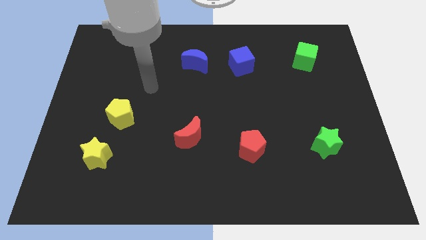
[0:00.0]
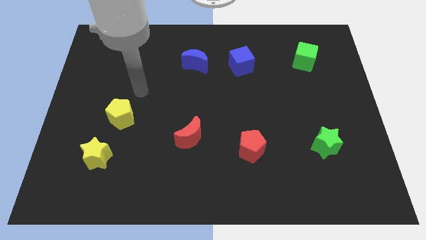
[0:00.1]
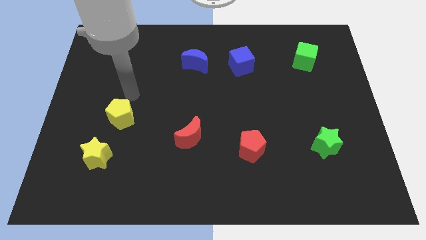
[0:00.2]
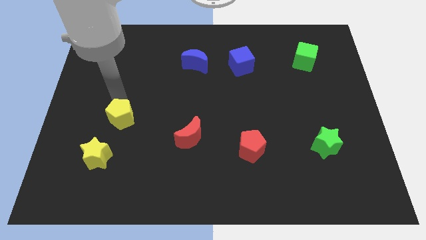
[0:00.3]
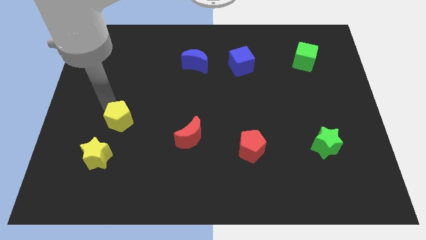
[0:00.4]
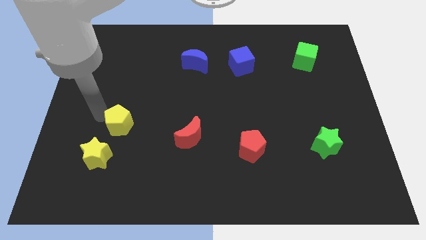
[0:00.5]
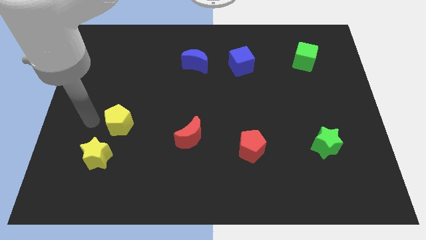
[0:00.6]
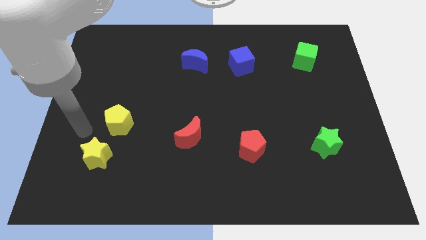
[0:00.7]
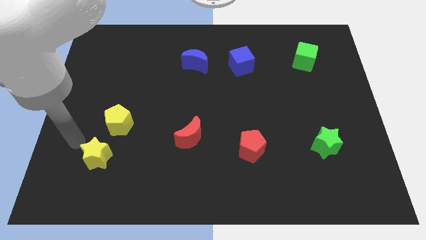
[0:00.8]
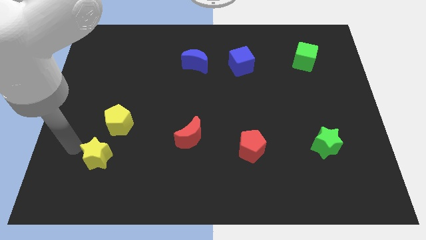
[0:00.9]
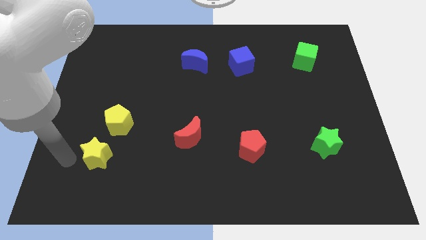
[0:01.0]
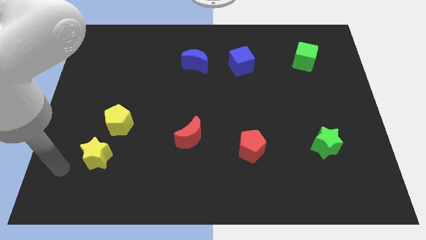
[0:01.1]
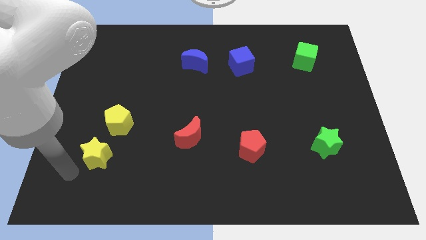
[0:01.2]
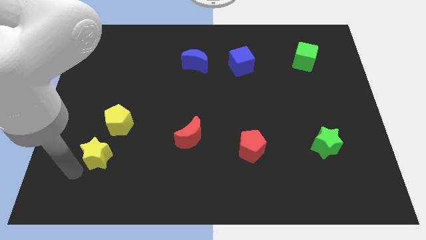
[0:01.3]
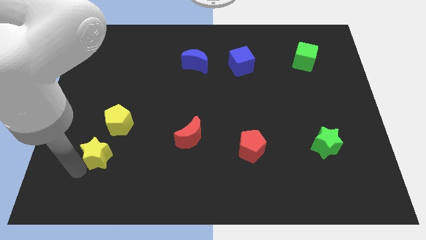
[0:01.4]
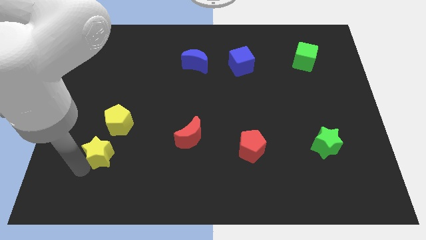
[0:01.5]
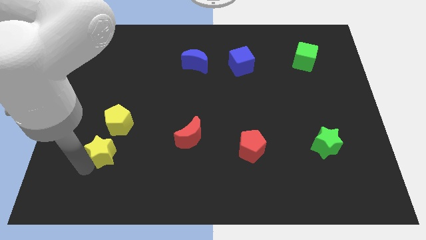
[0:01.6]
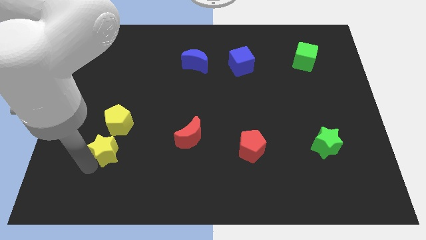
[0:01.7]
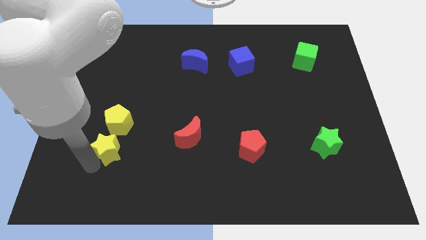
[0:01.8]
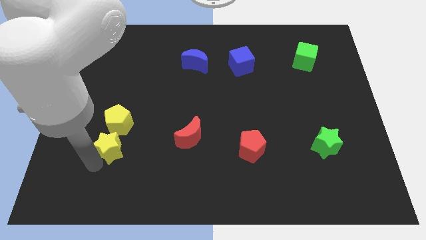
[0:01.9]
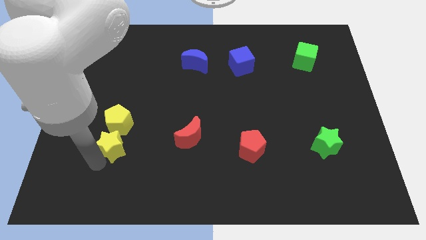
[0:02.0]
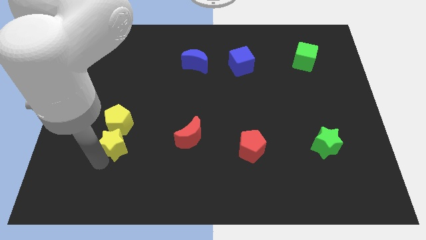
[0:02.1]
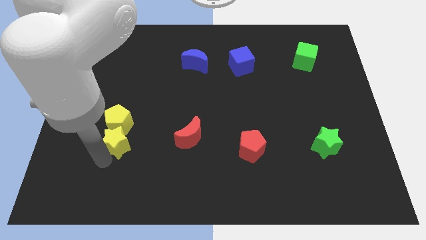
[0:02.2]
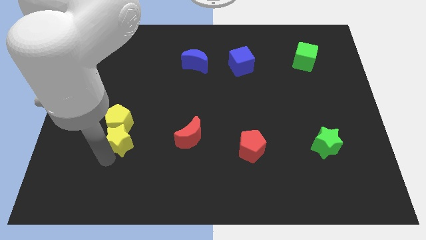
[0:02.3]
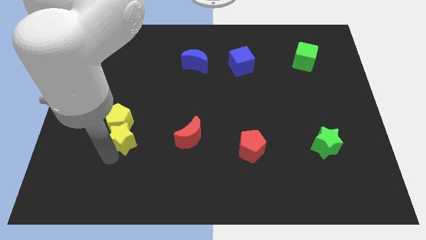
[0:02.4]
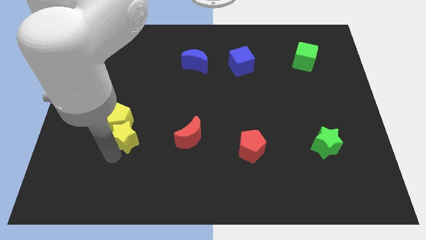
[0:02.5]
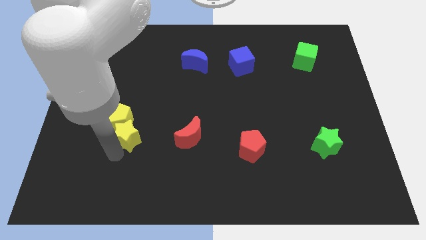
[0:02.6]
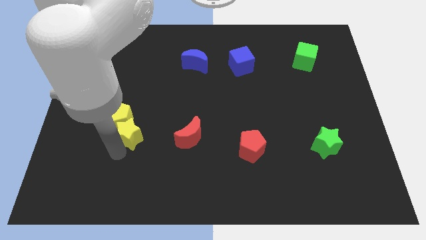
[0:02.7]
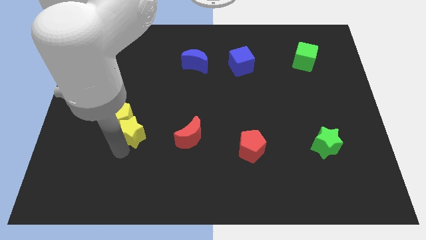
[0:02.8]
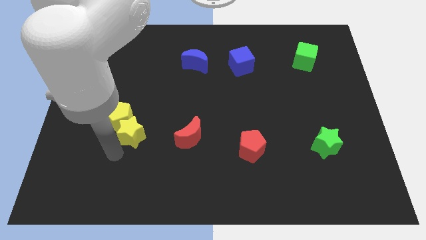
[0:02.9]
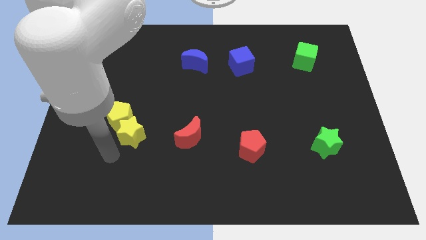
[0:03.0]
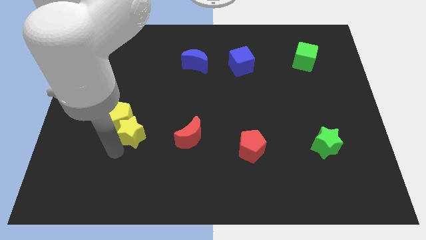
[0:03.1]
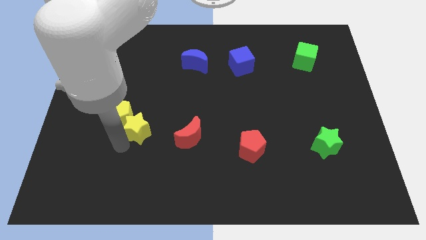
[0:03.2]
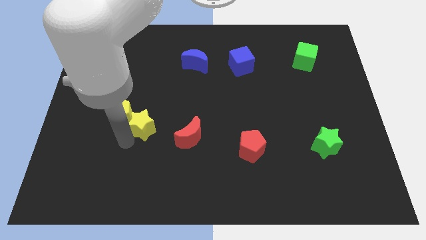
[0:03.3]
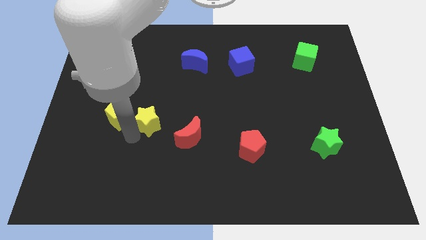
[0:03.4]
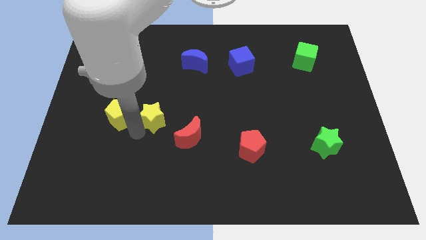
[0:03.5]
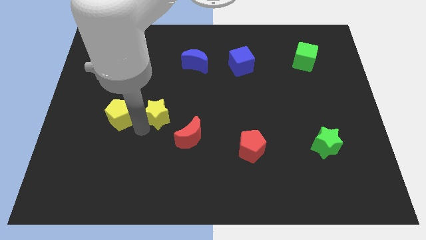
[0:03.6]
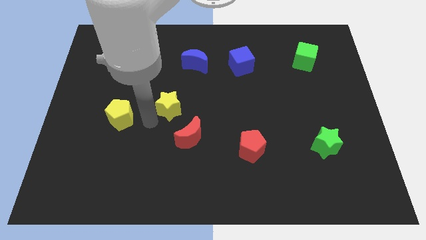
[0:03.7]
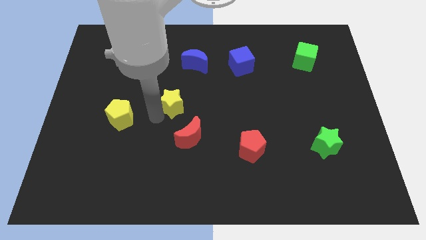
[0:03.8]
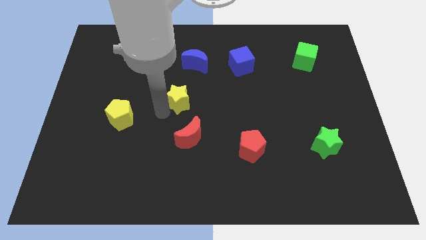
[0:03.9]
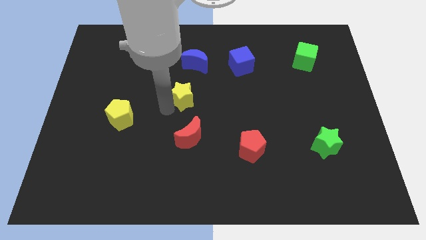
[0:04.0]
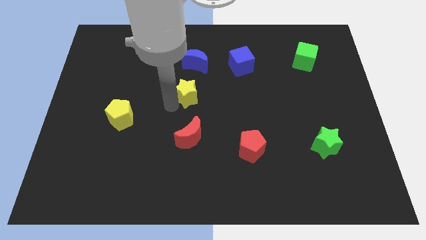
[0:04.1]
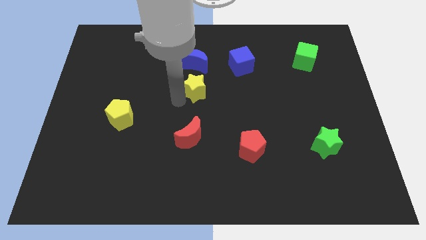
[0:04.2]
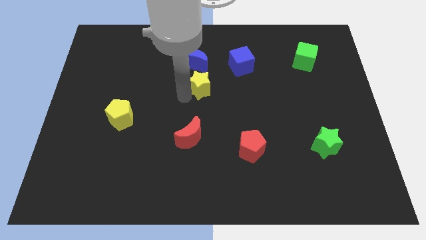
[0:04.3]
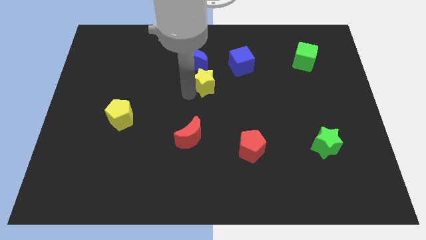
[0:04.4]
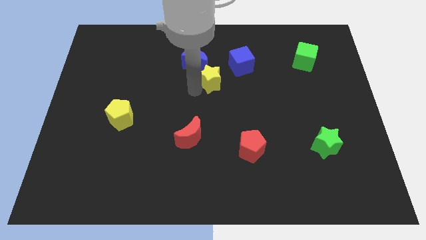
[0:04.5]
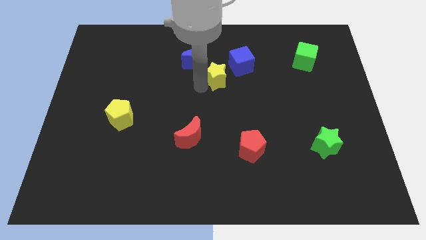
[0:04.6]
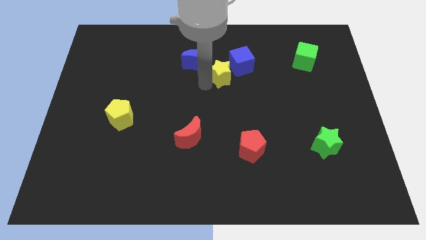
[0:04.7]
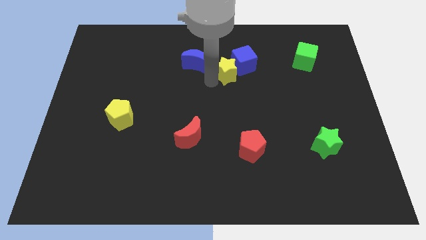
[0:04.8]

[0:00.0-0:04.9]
put the yellow star towards the blue cube

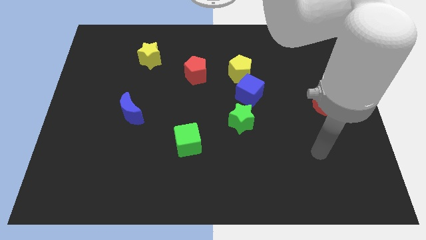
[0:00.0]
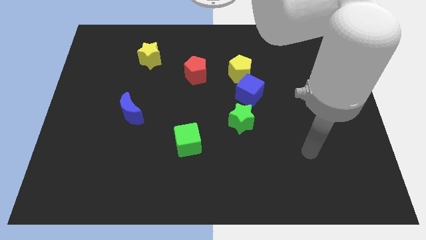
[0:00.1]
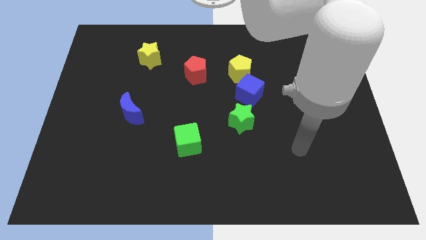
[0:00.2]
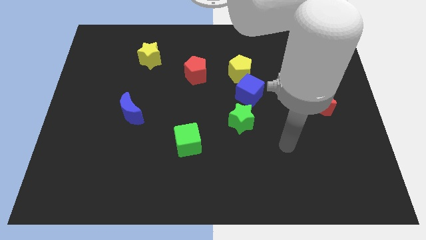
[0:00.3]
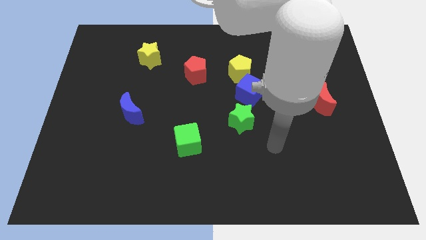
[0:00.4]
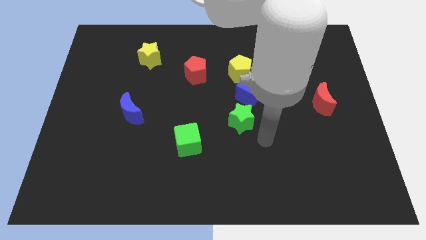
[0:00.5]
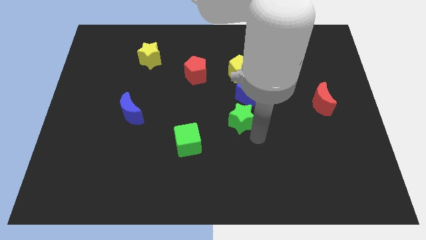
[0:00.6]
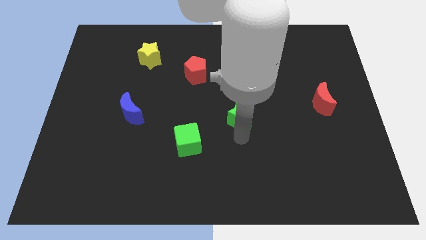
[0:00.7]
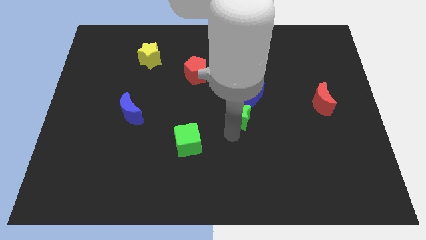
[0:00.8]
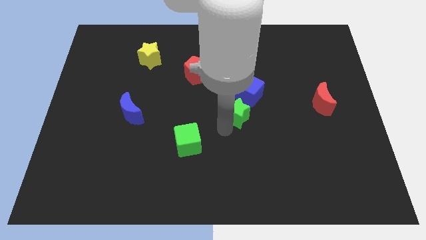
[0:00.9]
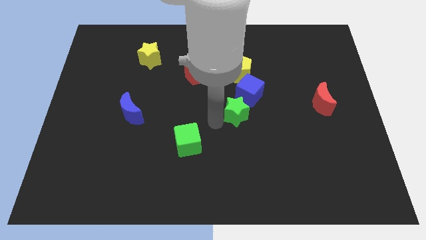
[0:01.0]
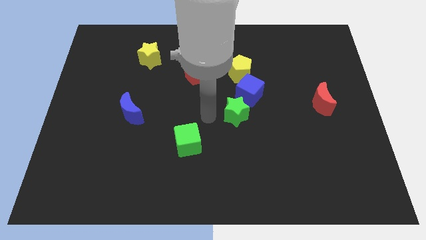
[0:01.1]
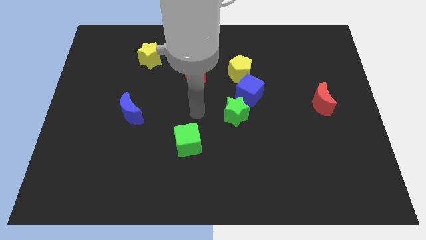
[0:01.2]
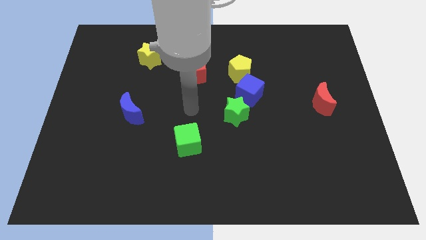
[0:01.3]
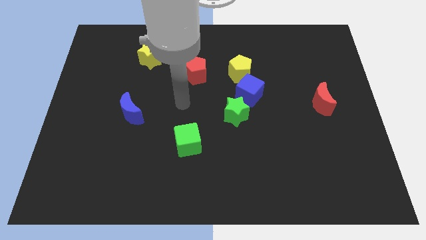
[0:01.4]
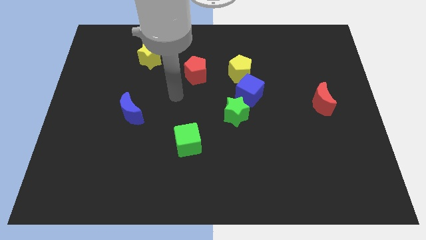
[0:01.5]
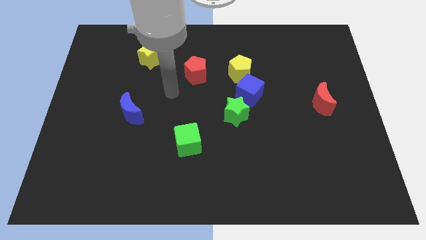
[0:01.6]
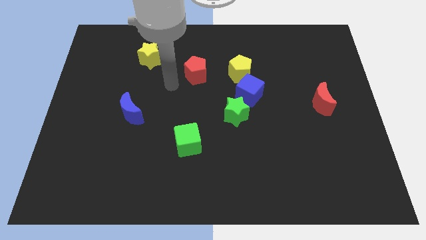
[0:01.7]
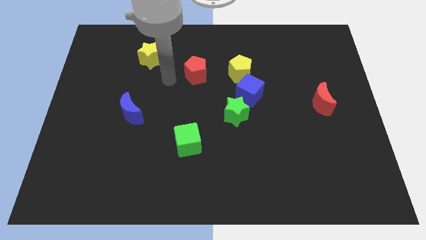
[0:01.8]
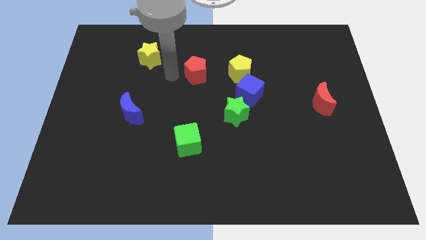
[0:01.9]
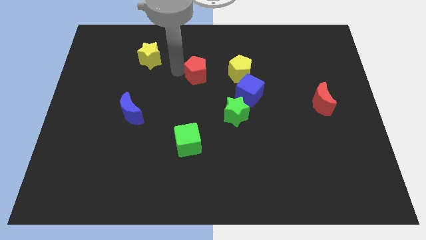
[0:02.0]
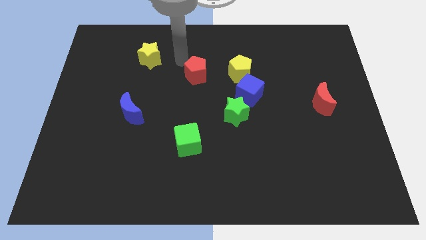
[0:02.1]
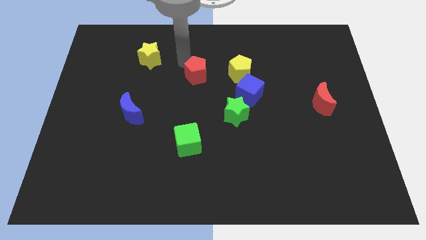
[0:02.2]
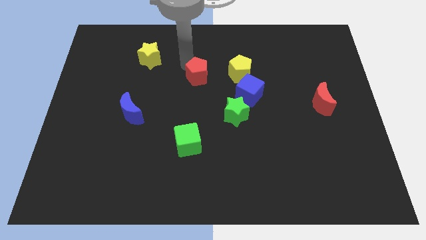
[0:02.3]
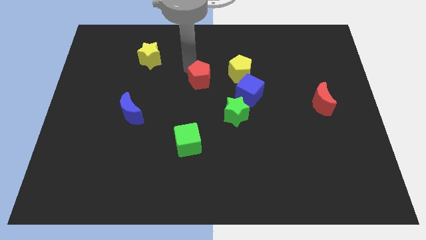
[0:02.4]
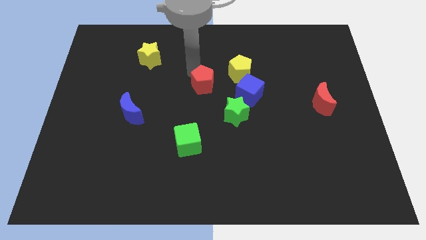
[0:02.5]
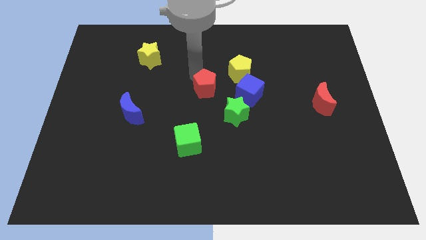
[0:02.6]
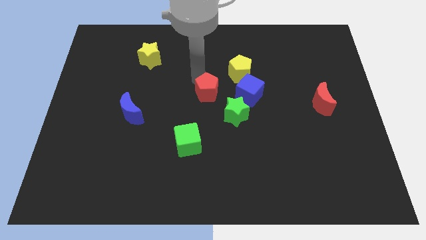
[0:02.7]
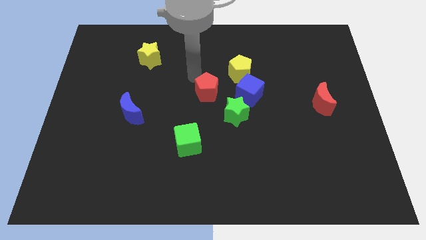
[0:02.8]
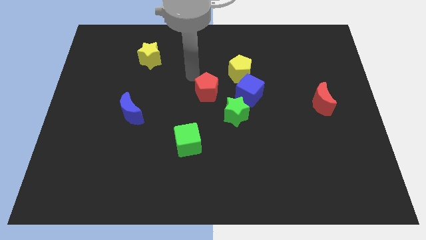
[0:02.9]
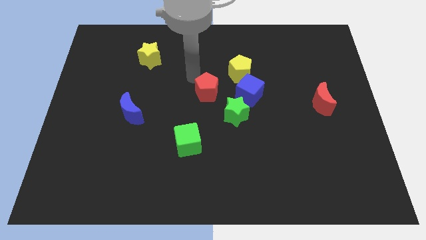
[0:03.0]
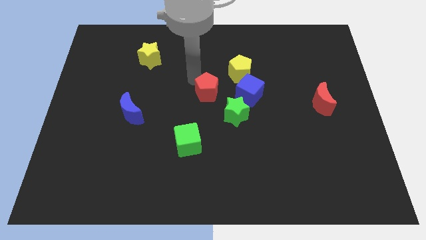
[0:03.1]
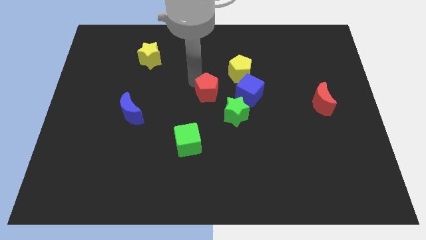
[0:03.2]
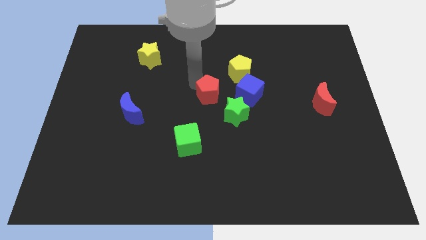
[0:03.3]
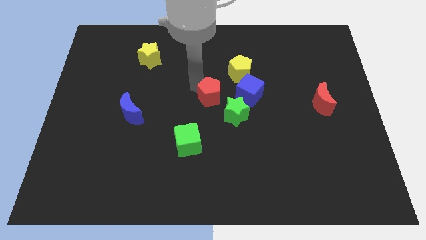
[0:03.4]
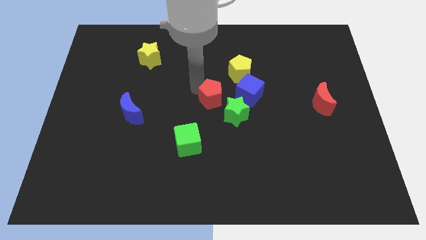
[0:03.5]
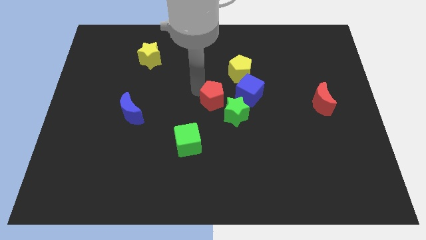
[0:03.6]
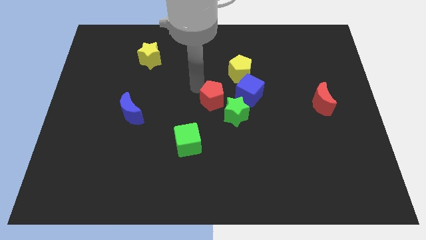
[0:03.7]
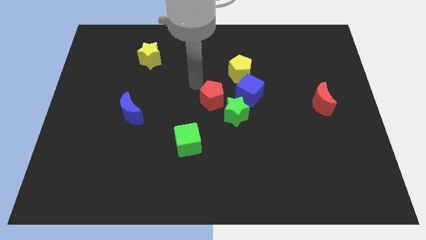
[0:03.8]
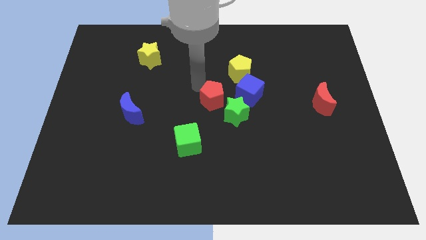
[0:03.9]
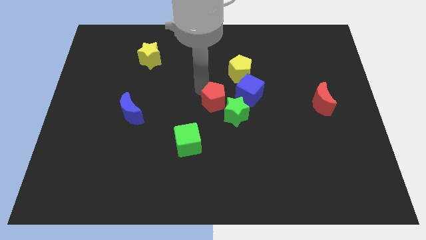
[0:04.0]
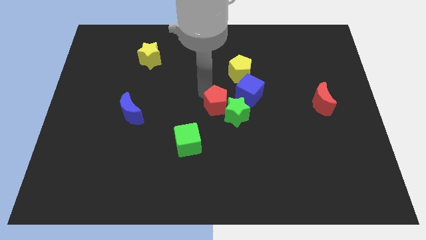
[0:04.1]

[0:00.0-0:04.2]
put the red pentagon next to the green star
